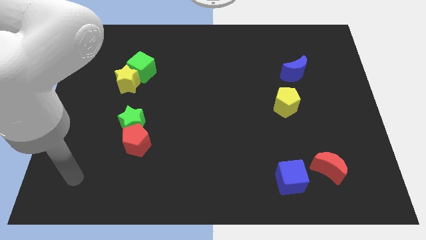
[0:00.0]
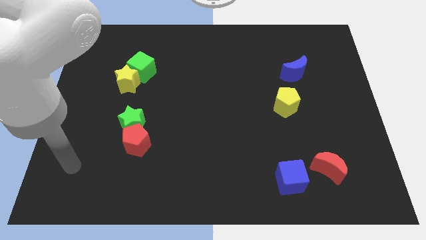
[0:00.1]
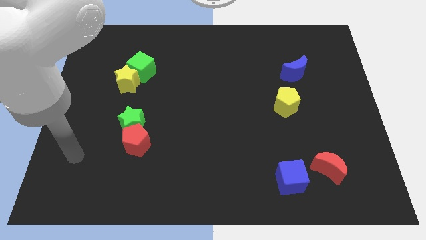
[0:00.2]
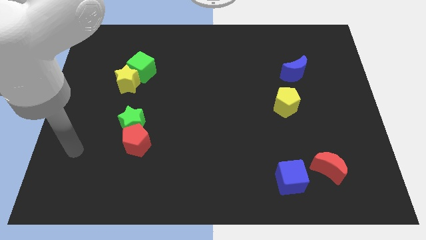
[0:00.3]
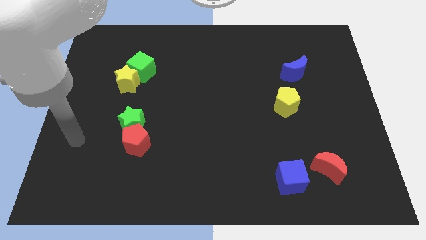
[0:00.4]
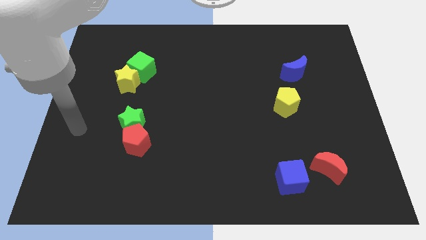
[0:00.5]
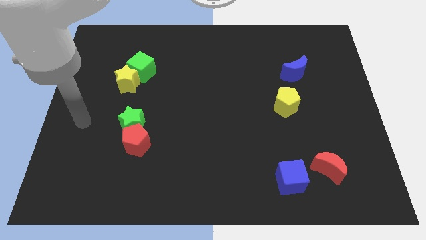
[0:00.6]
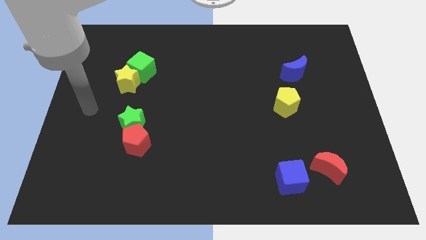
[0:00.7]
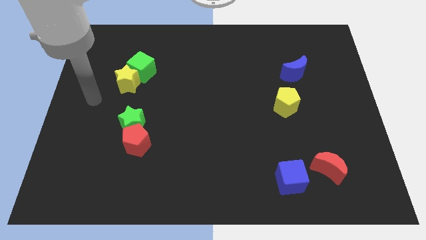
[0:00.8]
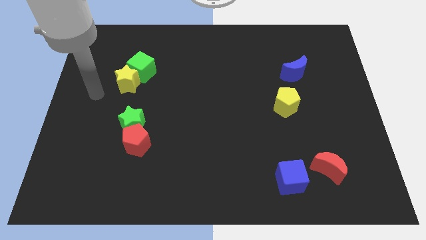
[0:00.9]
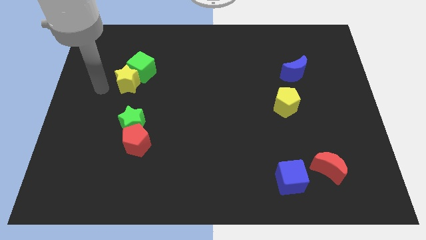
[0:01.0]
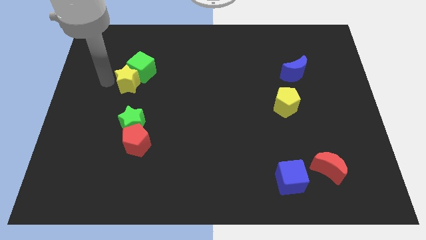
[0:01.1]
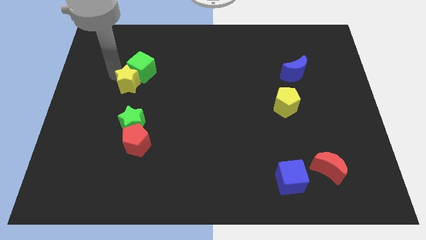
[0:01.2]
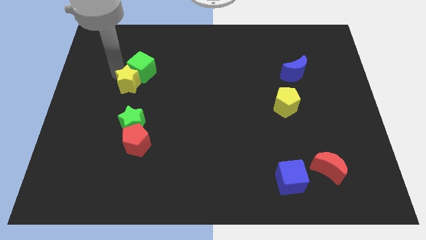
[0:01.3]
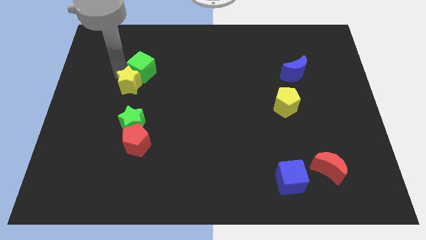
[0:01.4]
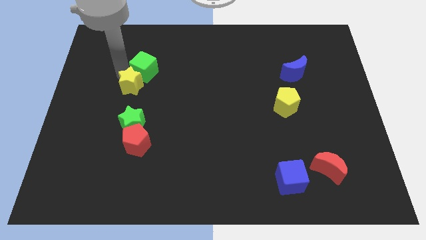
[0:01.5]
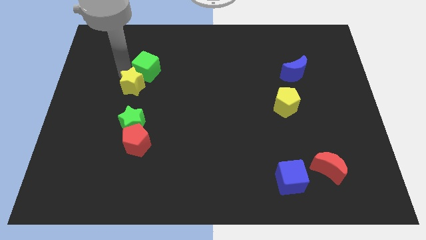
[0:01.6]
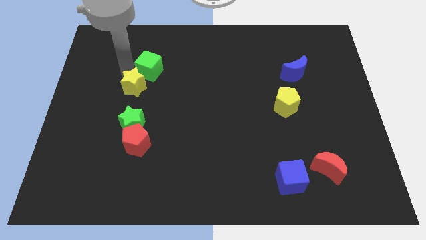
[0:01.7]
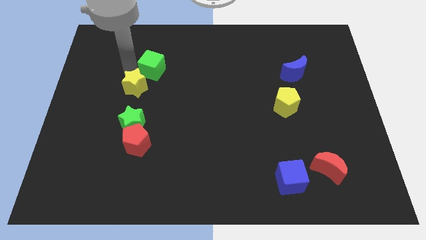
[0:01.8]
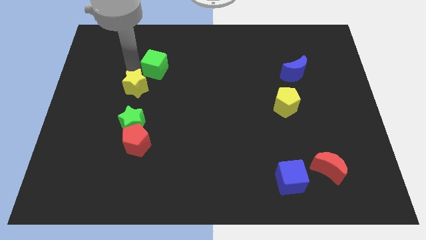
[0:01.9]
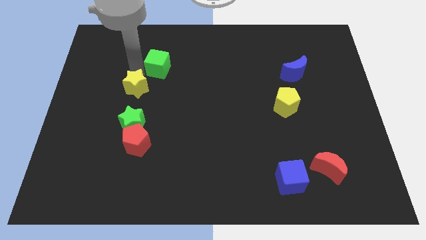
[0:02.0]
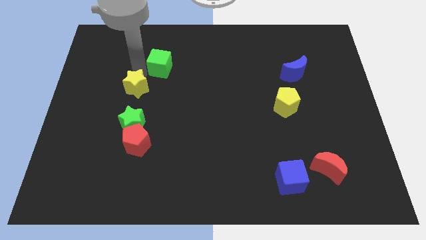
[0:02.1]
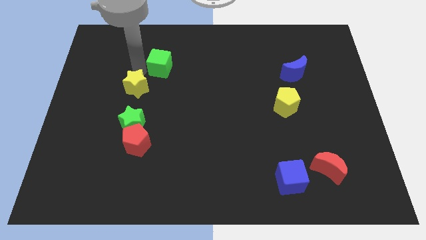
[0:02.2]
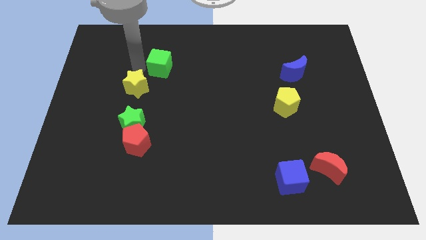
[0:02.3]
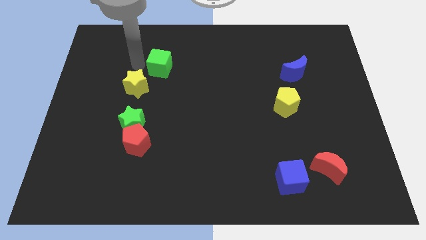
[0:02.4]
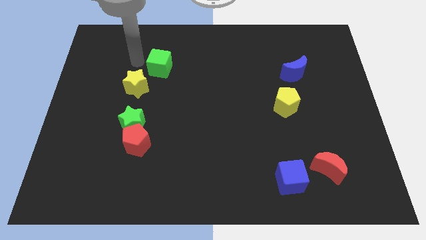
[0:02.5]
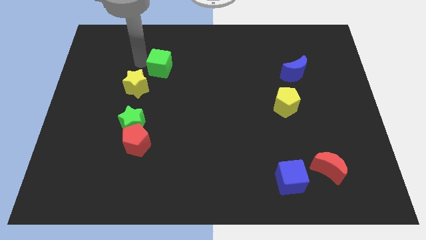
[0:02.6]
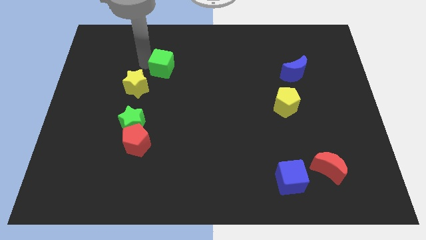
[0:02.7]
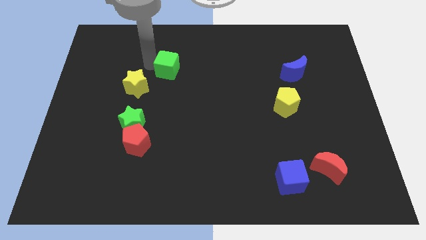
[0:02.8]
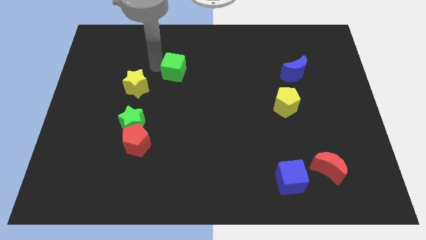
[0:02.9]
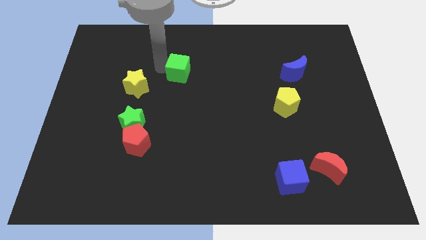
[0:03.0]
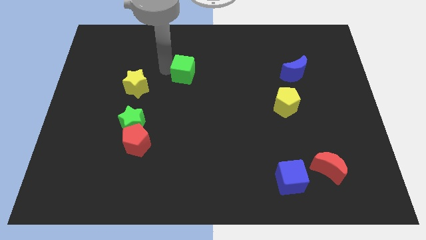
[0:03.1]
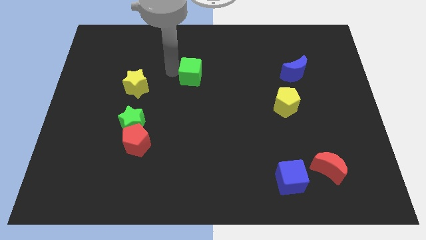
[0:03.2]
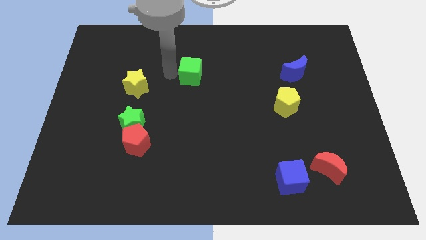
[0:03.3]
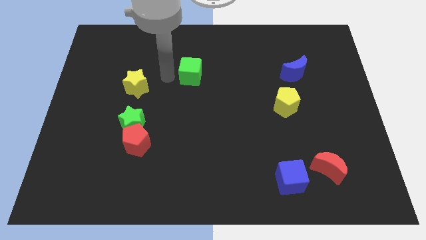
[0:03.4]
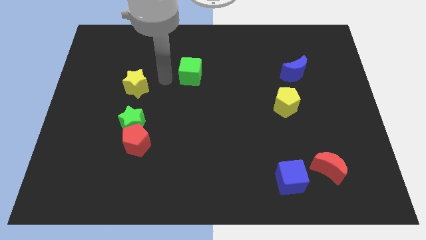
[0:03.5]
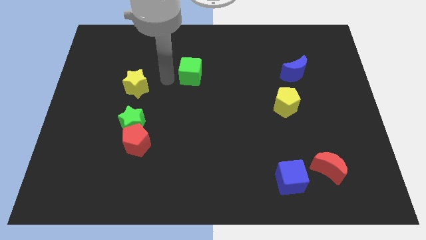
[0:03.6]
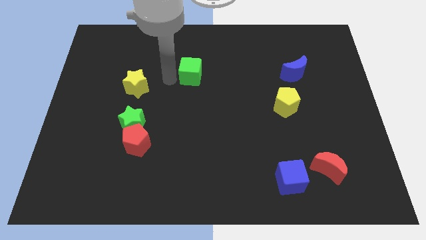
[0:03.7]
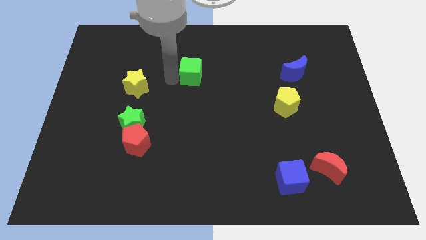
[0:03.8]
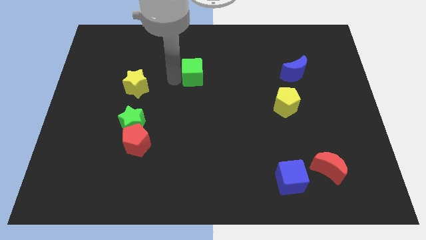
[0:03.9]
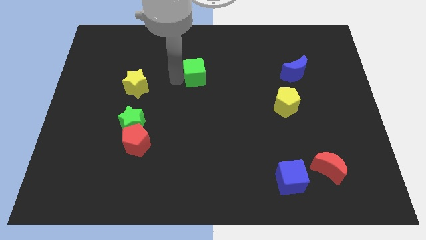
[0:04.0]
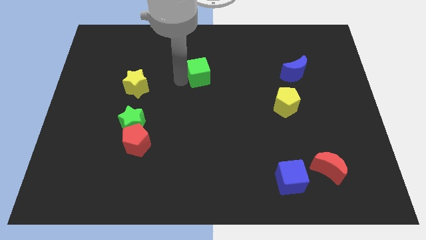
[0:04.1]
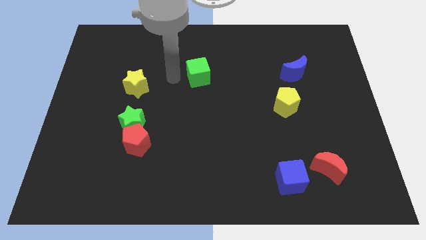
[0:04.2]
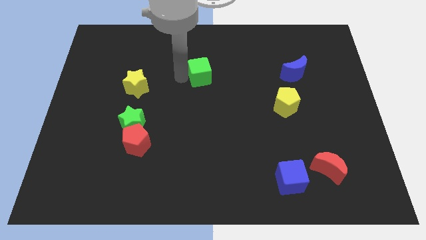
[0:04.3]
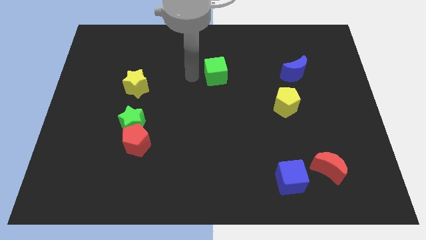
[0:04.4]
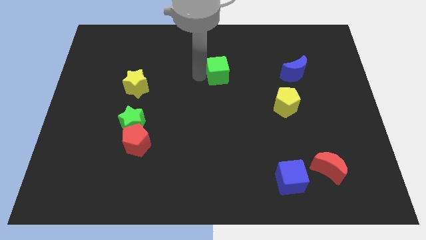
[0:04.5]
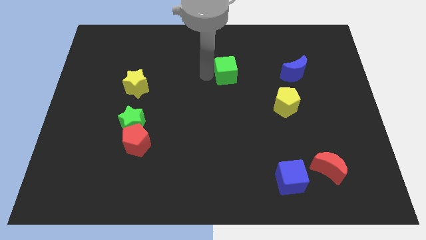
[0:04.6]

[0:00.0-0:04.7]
slide the green cube right

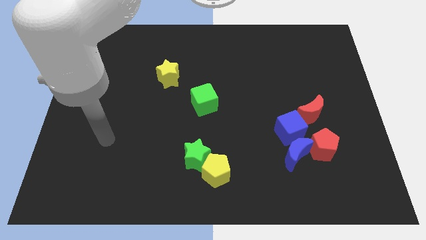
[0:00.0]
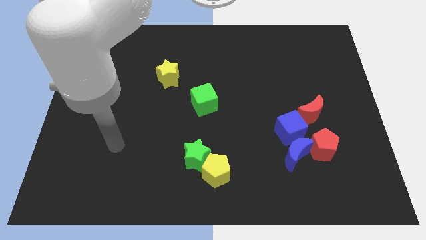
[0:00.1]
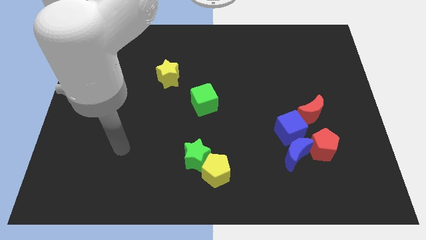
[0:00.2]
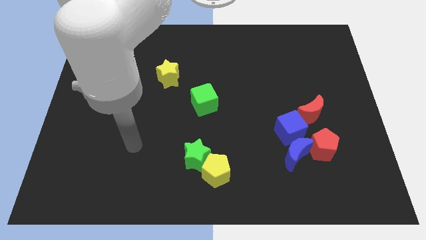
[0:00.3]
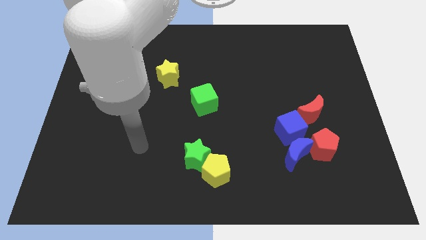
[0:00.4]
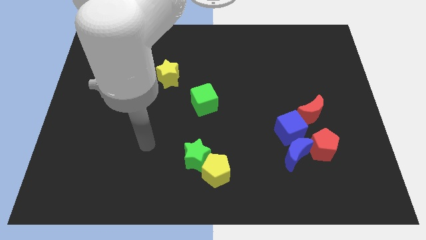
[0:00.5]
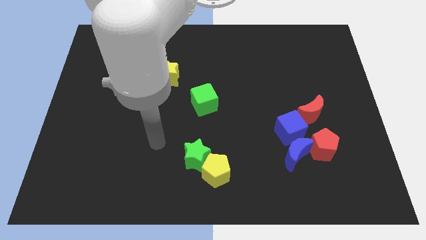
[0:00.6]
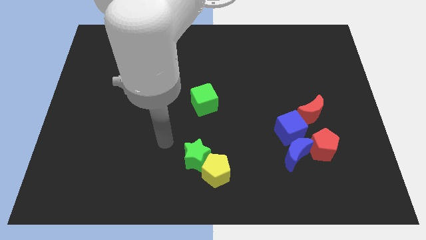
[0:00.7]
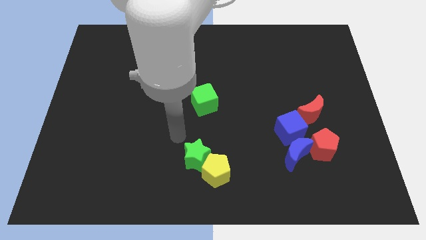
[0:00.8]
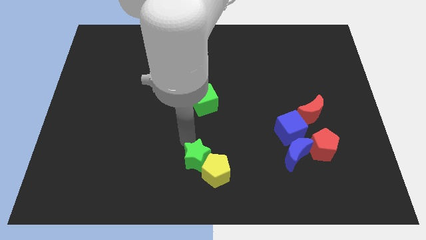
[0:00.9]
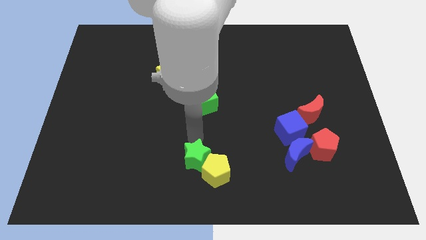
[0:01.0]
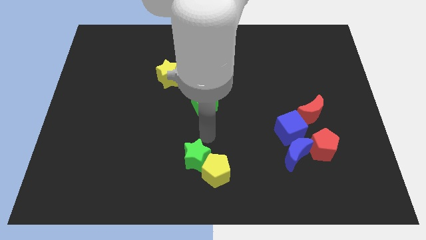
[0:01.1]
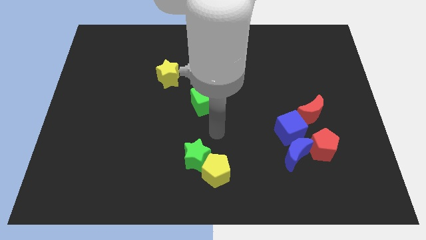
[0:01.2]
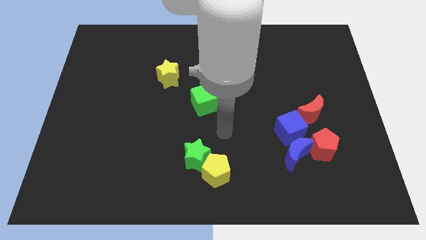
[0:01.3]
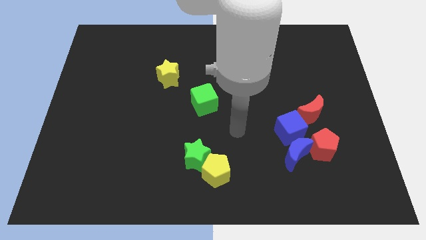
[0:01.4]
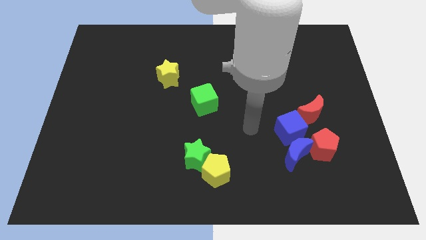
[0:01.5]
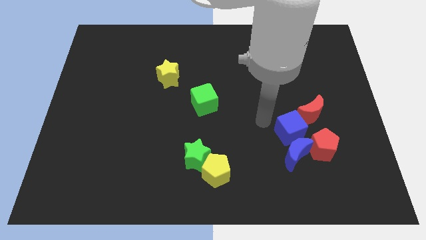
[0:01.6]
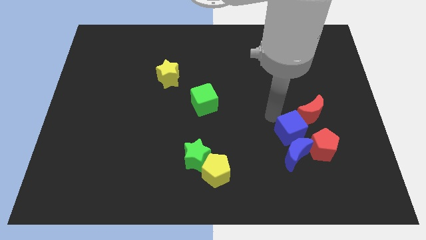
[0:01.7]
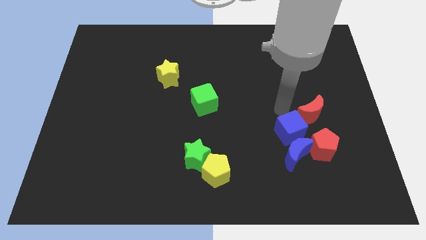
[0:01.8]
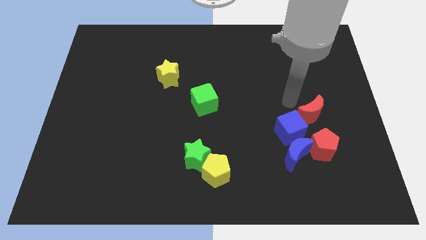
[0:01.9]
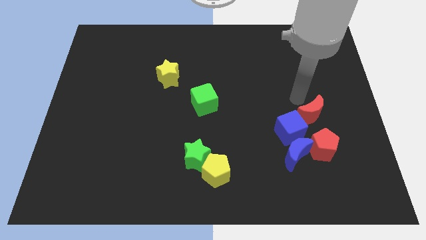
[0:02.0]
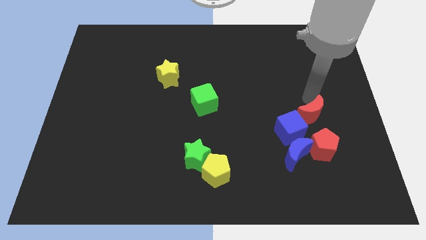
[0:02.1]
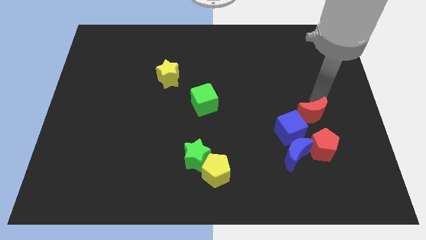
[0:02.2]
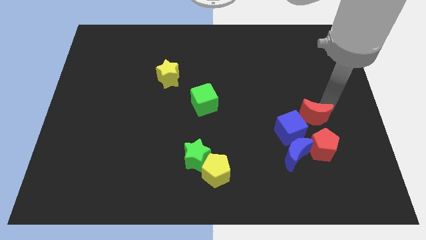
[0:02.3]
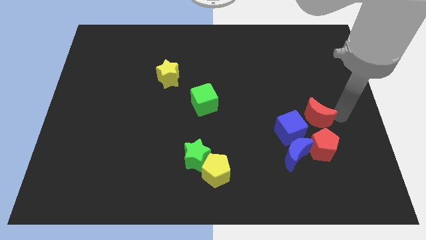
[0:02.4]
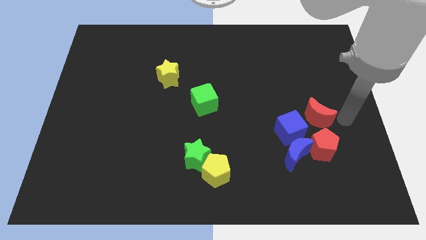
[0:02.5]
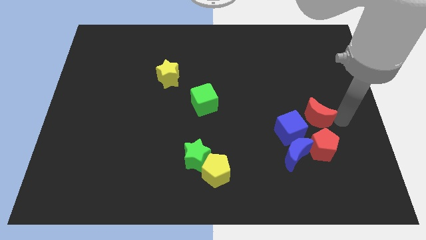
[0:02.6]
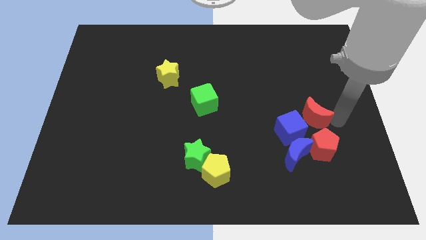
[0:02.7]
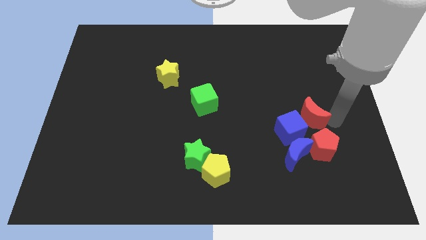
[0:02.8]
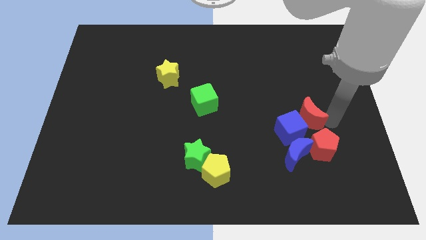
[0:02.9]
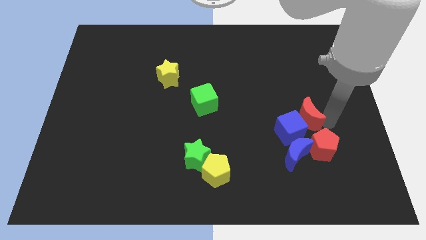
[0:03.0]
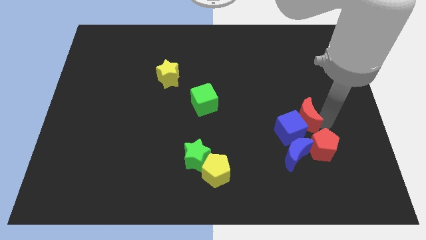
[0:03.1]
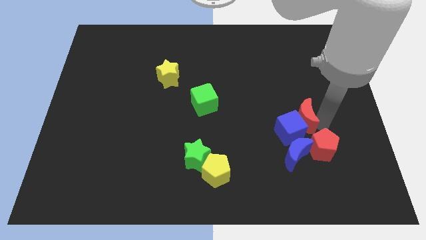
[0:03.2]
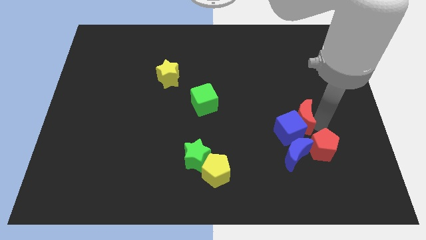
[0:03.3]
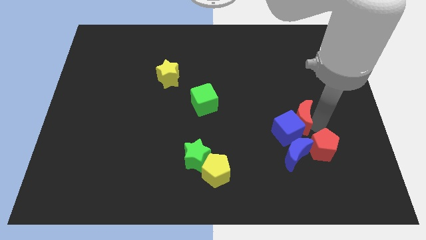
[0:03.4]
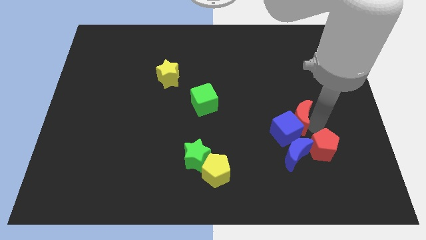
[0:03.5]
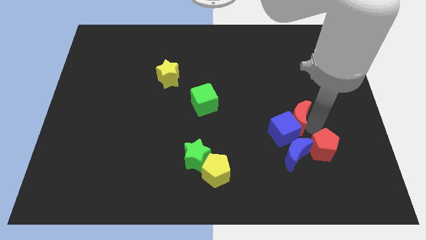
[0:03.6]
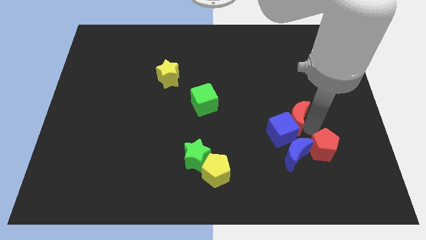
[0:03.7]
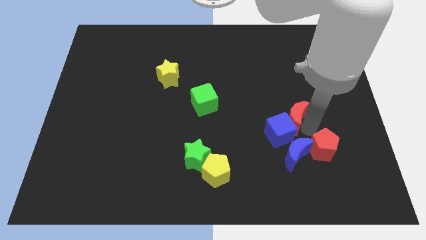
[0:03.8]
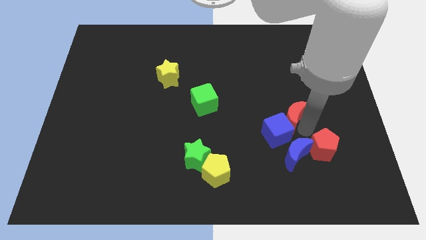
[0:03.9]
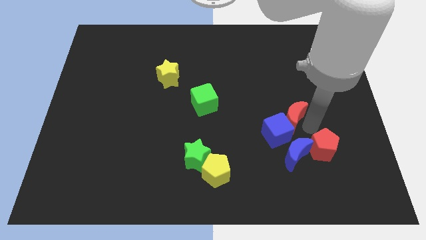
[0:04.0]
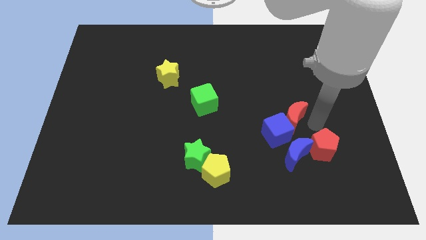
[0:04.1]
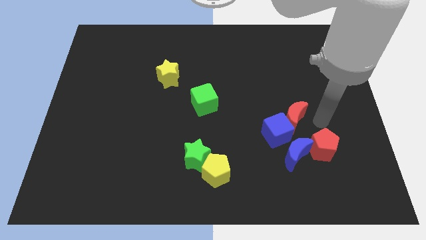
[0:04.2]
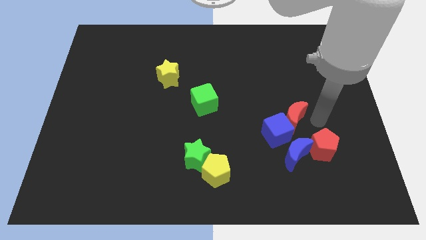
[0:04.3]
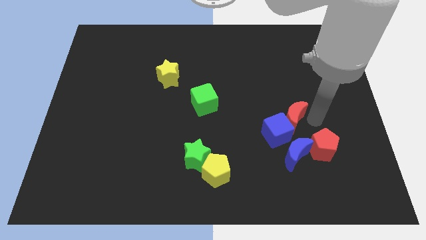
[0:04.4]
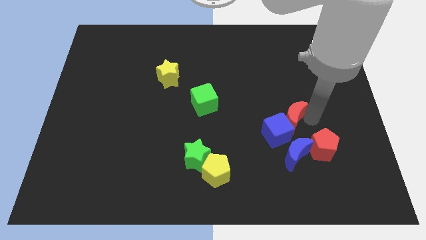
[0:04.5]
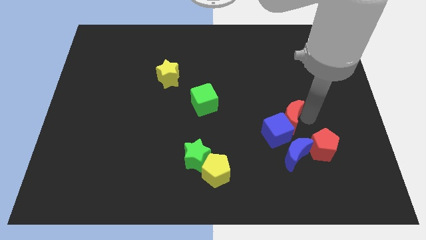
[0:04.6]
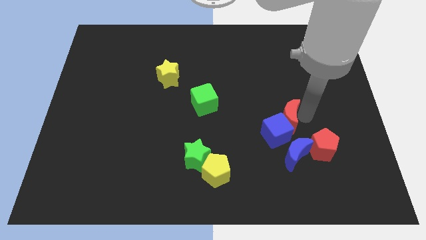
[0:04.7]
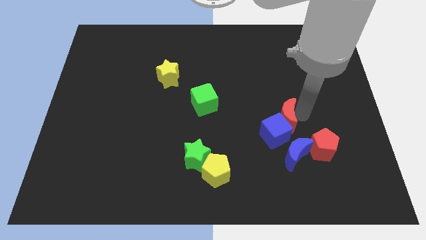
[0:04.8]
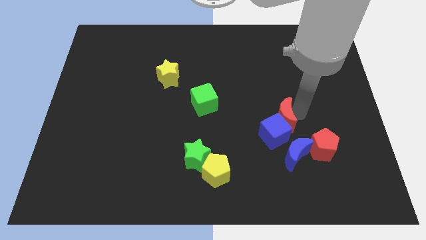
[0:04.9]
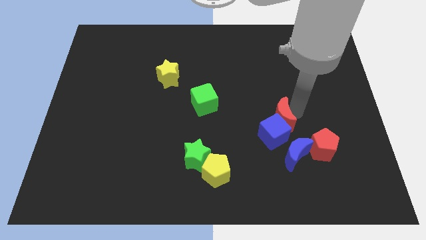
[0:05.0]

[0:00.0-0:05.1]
slightly move the red moon to the left
